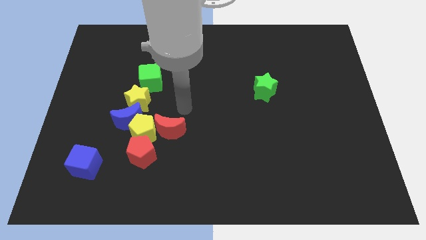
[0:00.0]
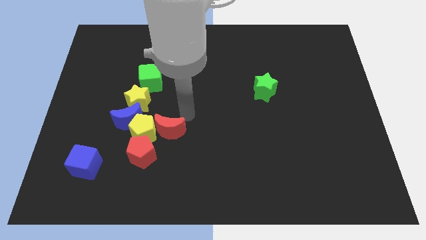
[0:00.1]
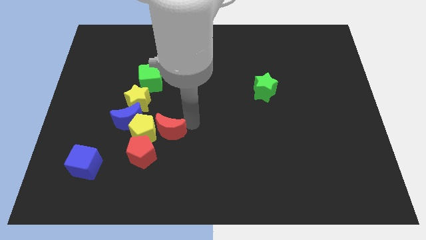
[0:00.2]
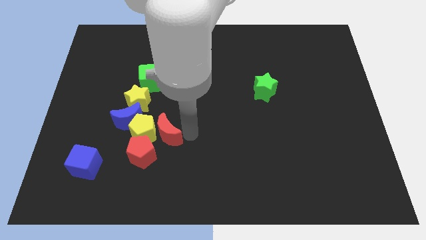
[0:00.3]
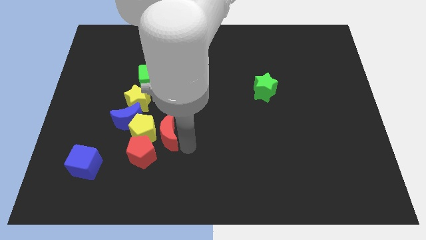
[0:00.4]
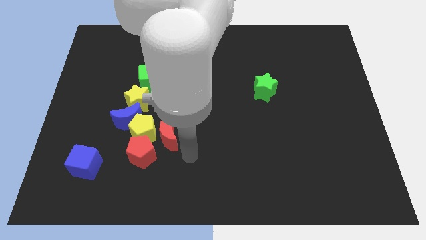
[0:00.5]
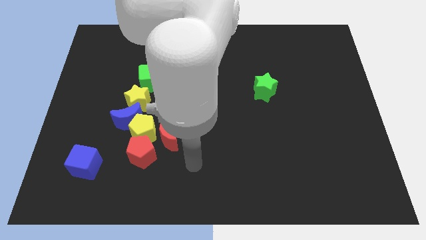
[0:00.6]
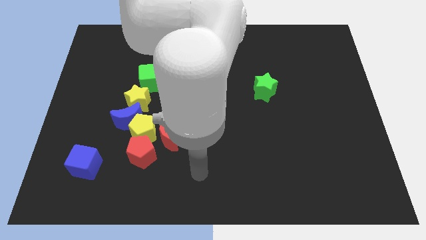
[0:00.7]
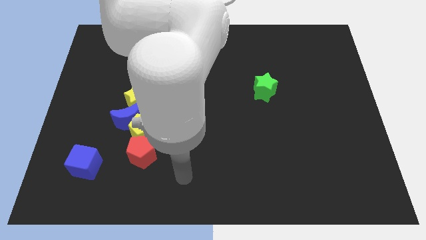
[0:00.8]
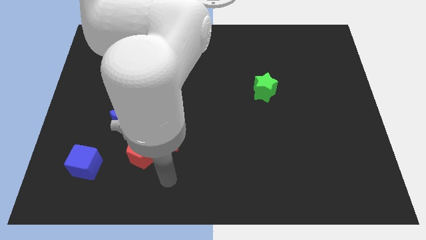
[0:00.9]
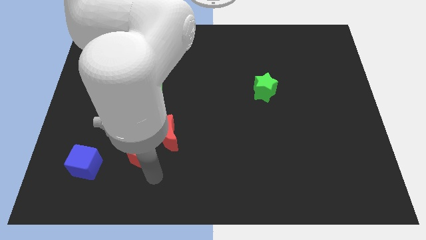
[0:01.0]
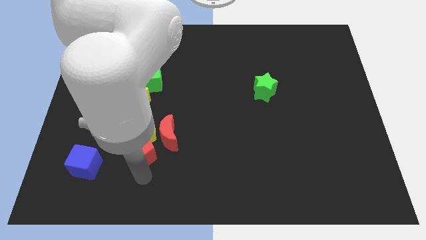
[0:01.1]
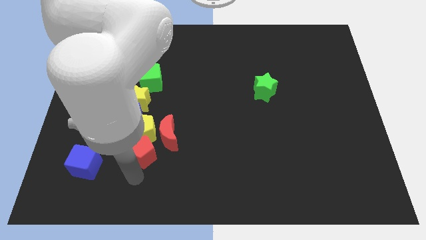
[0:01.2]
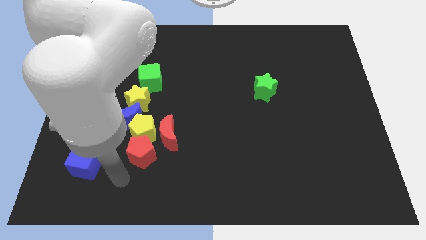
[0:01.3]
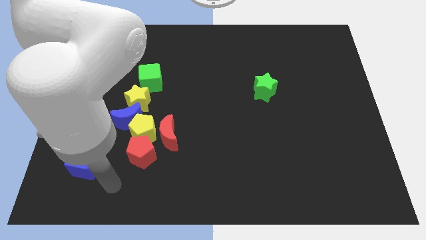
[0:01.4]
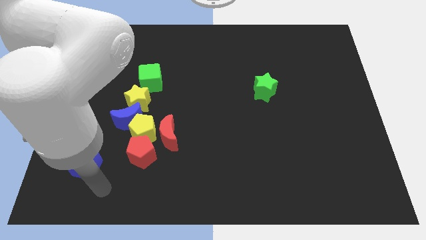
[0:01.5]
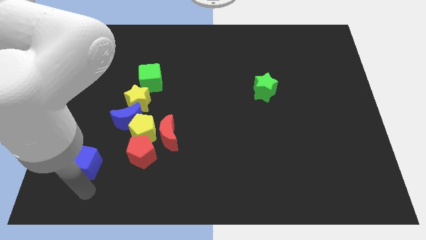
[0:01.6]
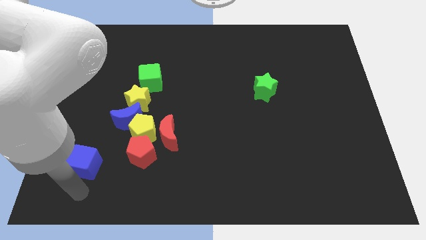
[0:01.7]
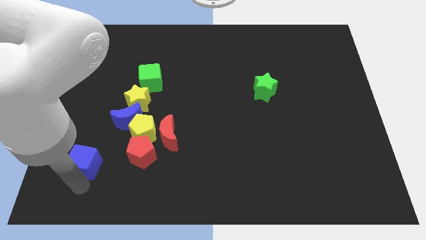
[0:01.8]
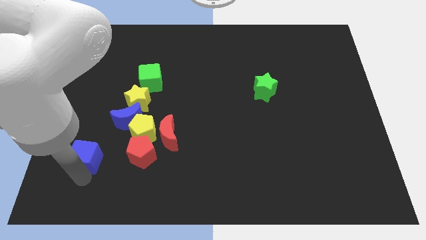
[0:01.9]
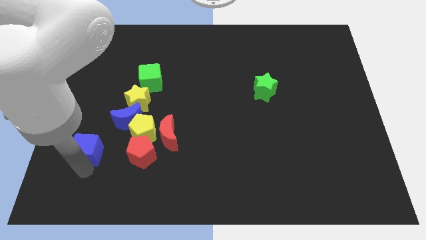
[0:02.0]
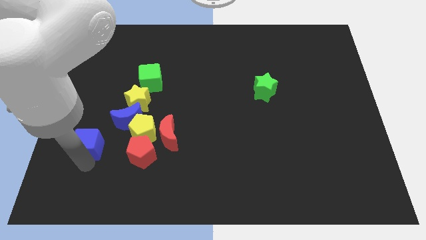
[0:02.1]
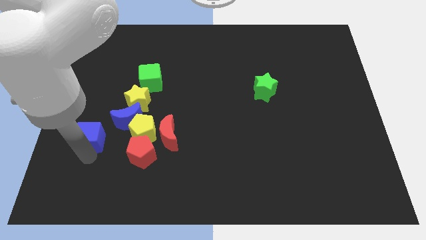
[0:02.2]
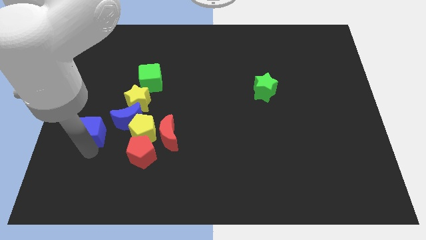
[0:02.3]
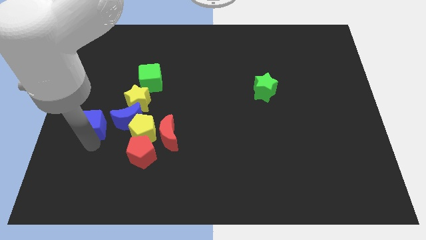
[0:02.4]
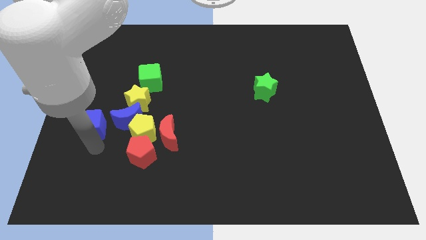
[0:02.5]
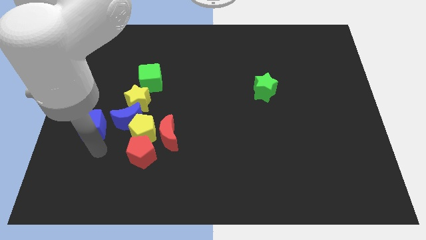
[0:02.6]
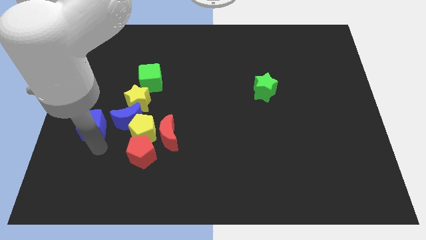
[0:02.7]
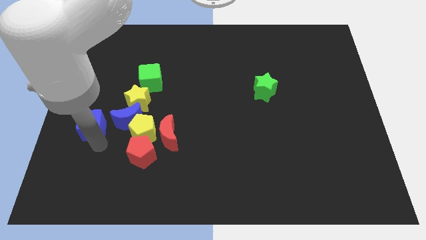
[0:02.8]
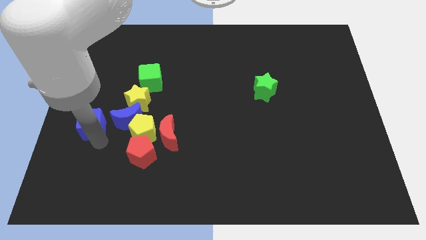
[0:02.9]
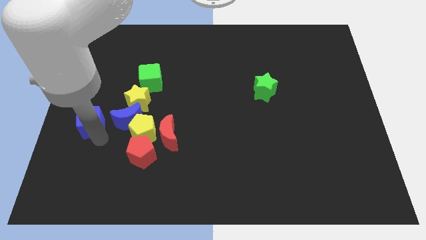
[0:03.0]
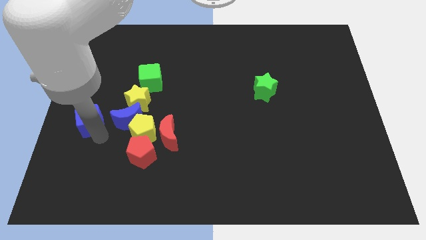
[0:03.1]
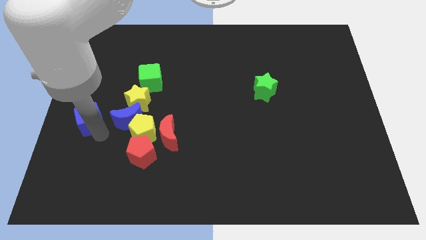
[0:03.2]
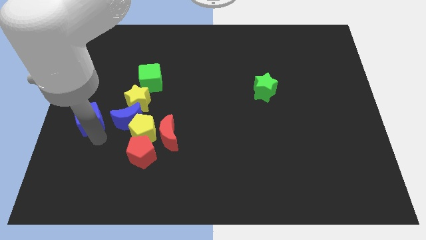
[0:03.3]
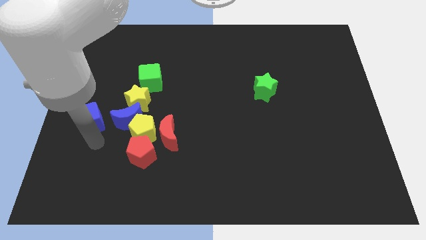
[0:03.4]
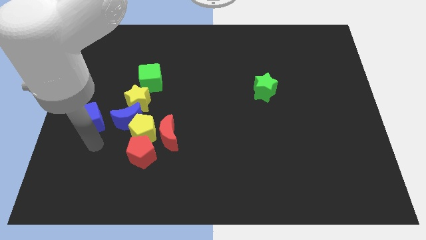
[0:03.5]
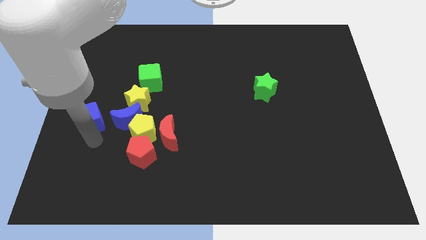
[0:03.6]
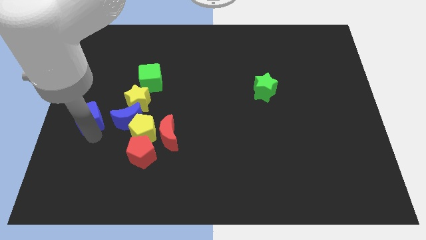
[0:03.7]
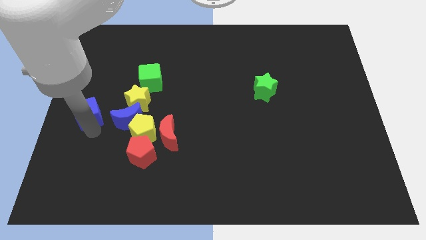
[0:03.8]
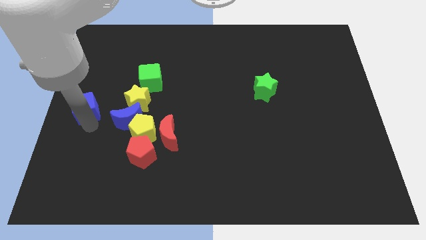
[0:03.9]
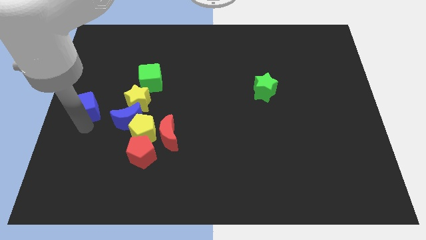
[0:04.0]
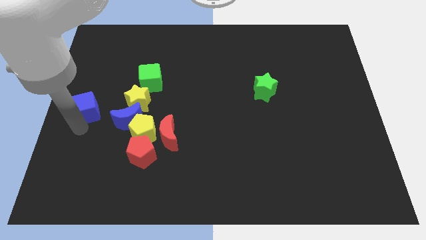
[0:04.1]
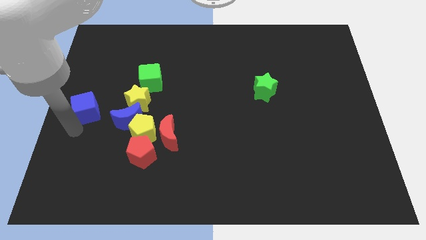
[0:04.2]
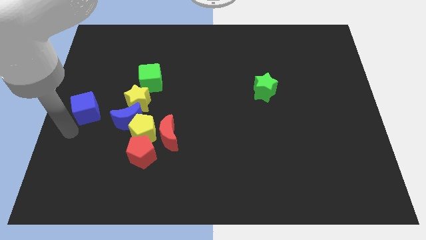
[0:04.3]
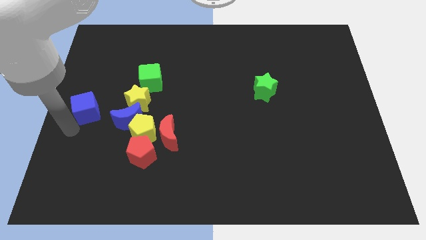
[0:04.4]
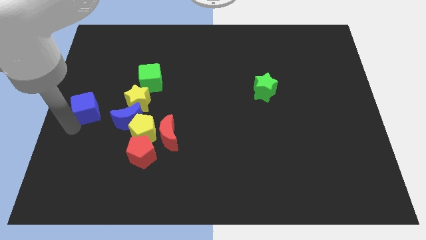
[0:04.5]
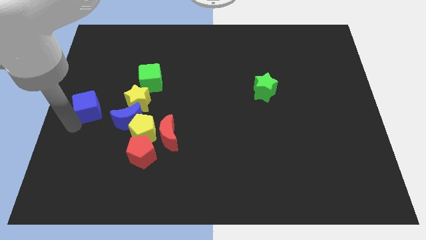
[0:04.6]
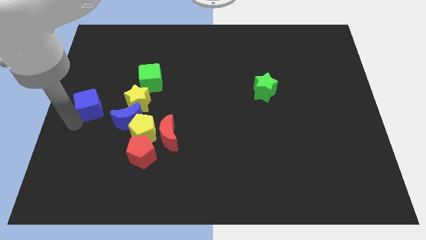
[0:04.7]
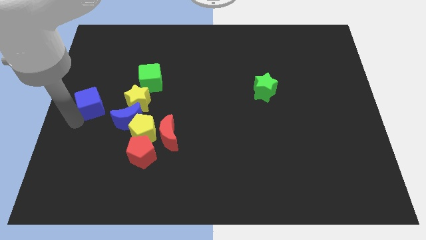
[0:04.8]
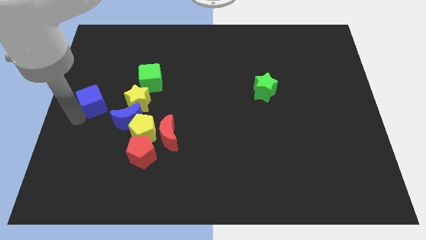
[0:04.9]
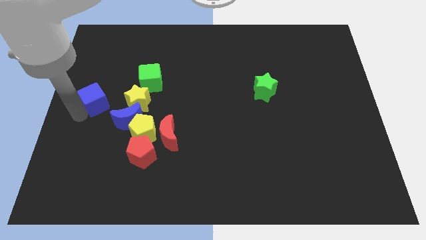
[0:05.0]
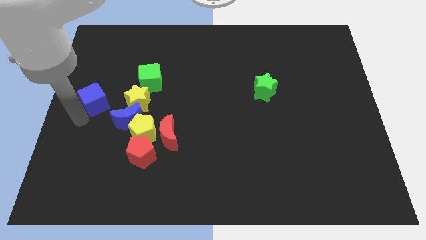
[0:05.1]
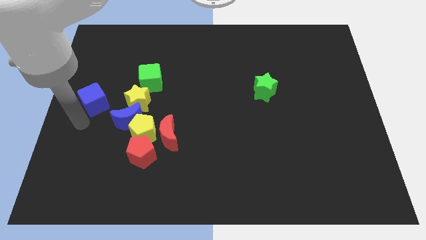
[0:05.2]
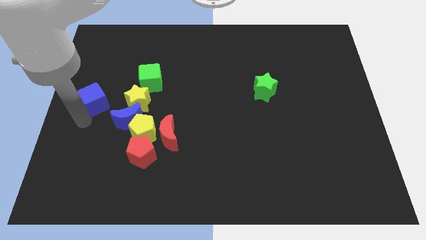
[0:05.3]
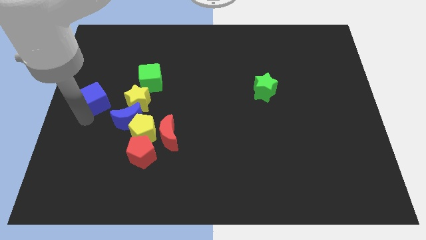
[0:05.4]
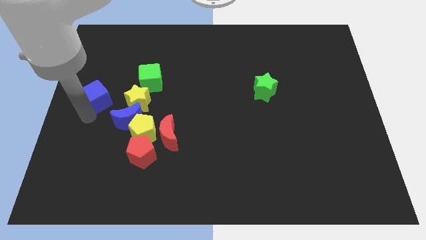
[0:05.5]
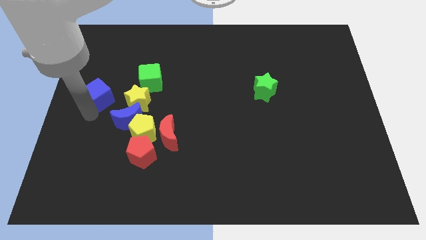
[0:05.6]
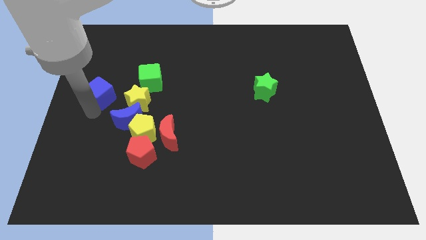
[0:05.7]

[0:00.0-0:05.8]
slide the blue cube to the left of the green cube

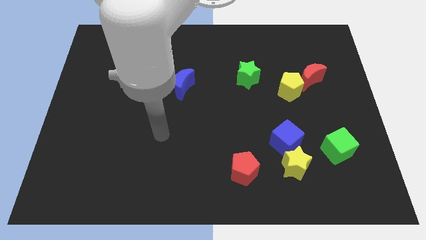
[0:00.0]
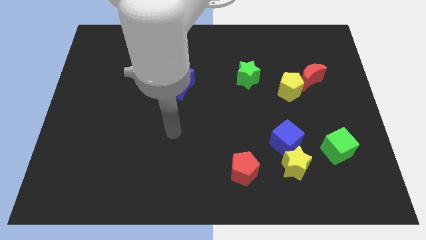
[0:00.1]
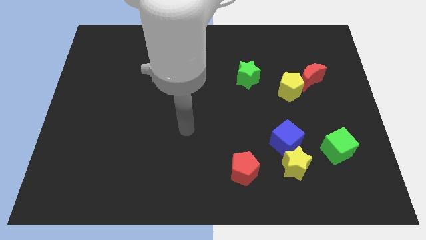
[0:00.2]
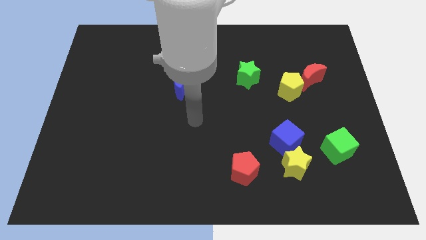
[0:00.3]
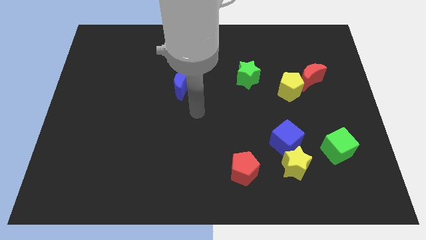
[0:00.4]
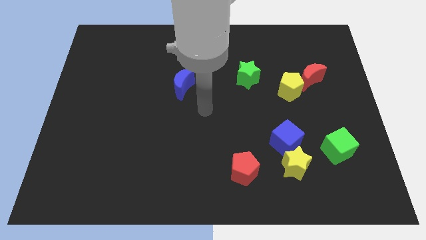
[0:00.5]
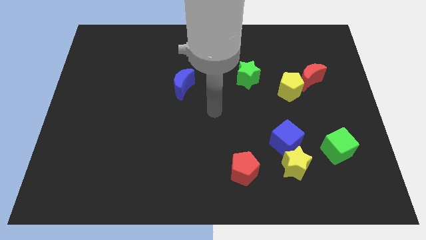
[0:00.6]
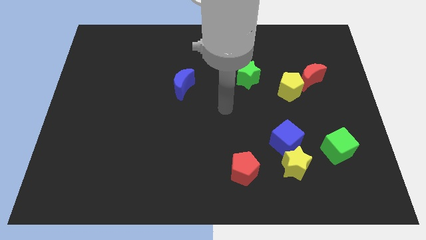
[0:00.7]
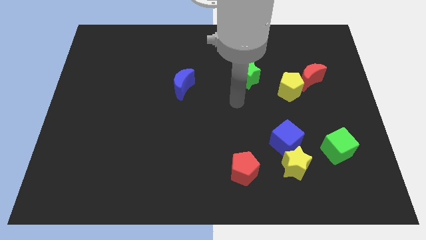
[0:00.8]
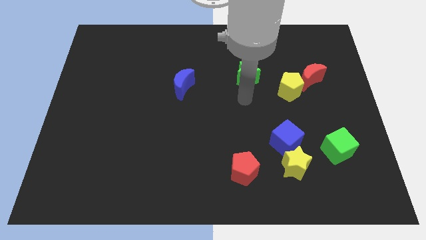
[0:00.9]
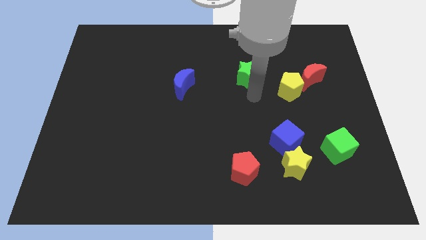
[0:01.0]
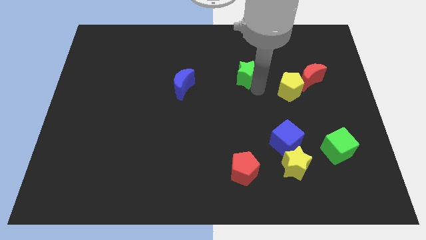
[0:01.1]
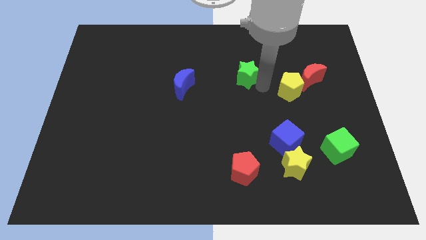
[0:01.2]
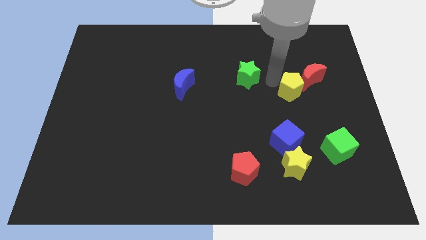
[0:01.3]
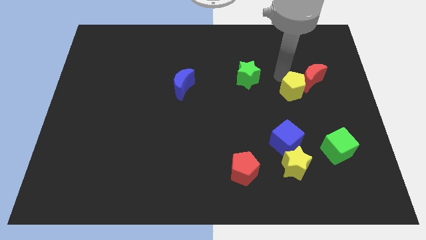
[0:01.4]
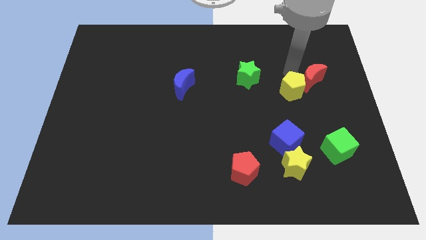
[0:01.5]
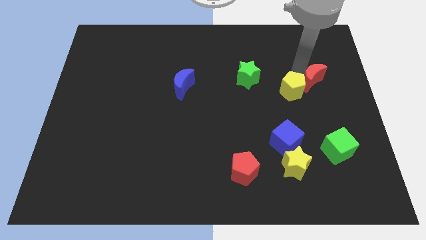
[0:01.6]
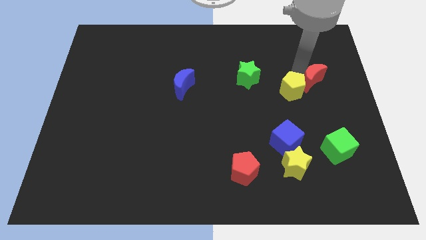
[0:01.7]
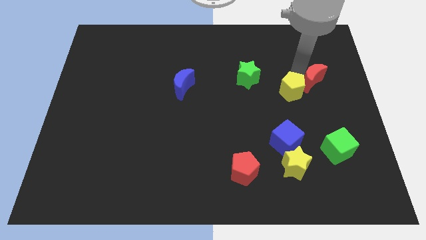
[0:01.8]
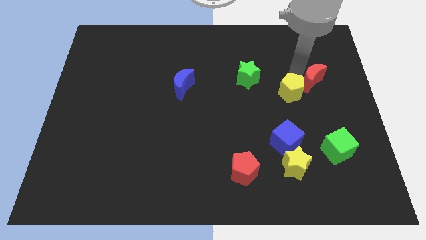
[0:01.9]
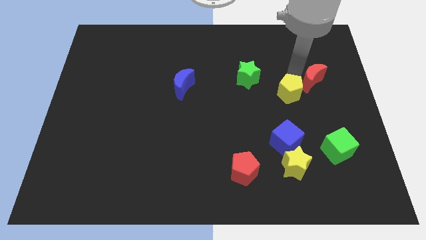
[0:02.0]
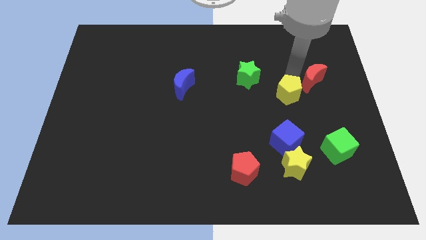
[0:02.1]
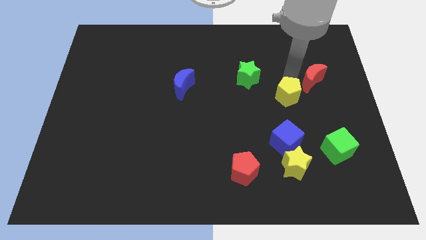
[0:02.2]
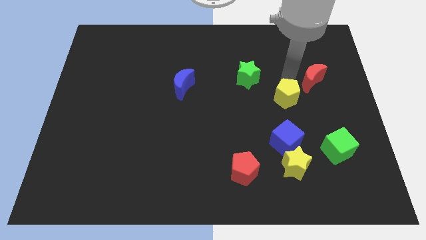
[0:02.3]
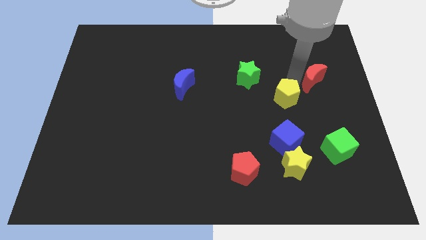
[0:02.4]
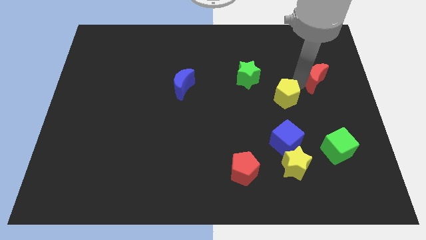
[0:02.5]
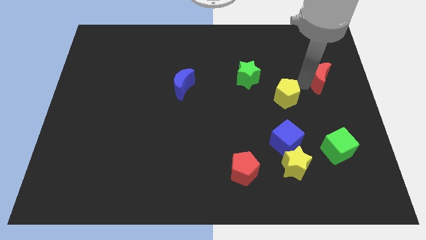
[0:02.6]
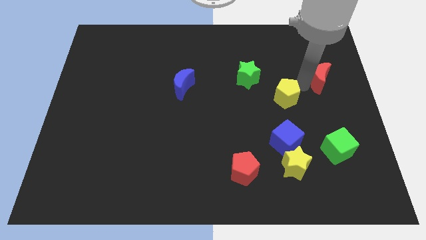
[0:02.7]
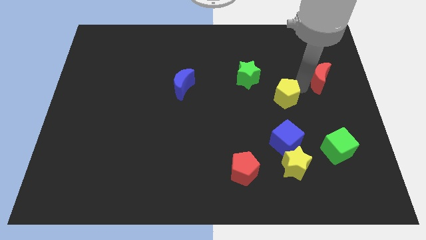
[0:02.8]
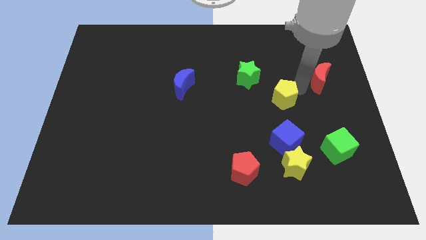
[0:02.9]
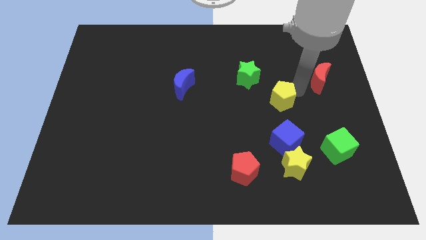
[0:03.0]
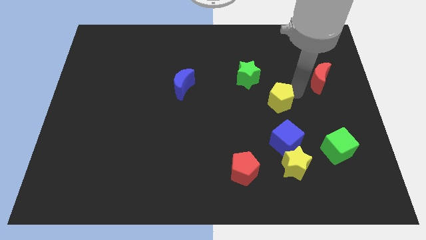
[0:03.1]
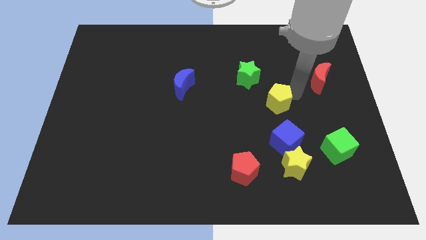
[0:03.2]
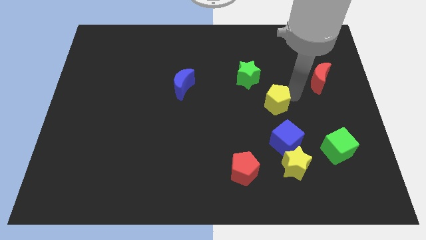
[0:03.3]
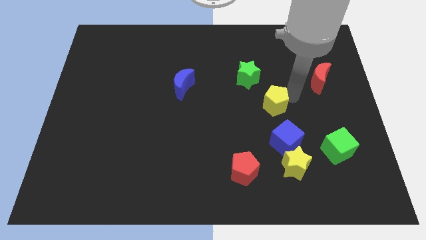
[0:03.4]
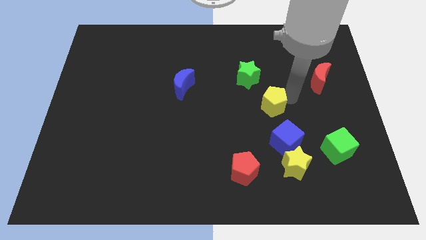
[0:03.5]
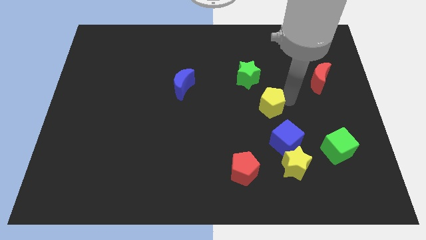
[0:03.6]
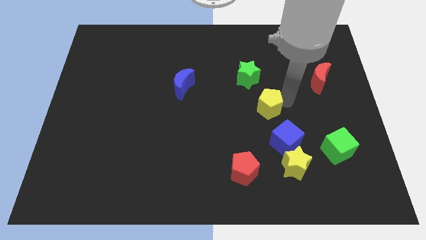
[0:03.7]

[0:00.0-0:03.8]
put the yellow pentagon diagonally up and to the left of the blue cube
